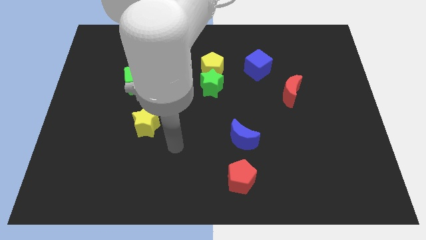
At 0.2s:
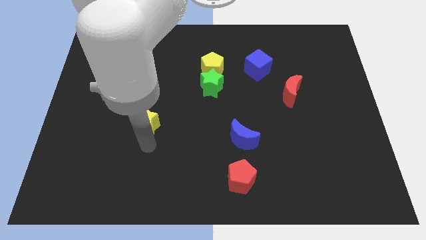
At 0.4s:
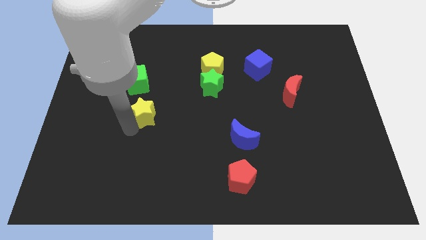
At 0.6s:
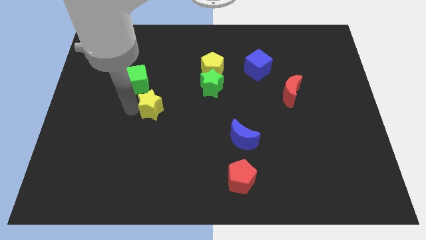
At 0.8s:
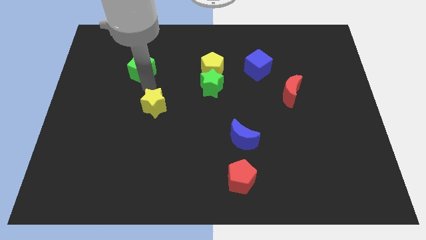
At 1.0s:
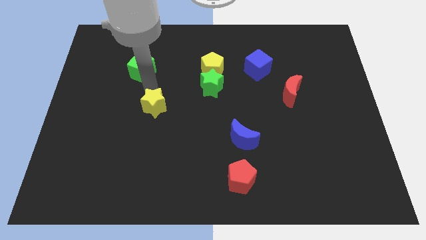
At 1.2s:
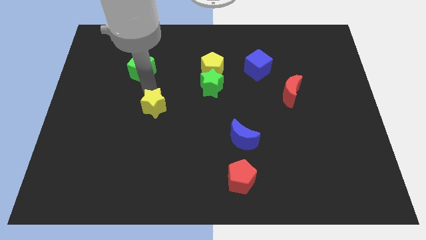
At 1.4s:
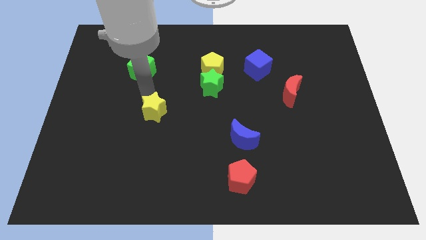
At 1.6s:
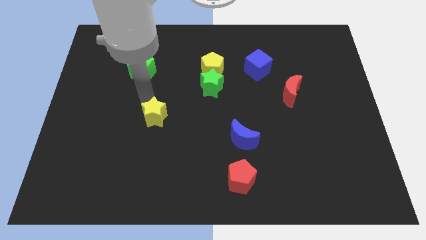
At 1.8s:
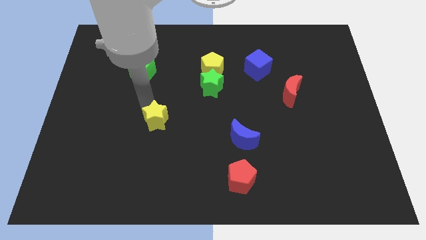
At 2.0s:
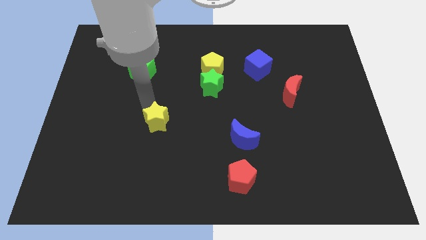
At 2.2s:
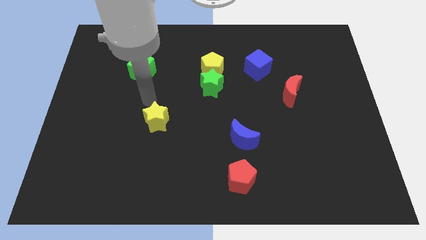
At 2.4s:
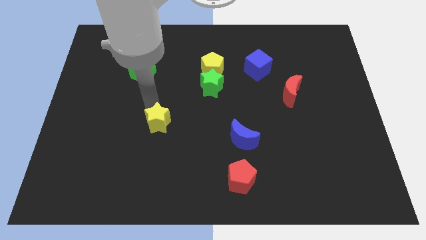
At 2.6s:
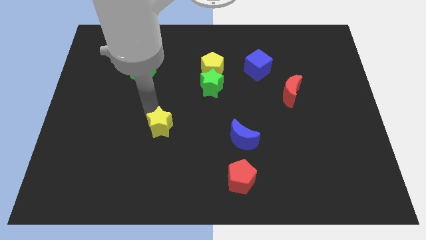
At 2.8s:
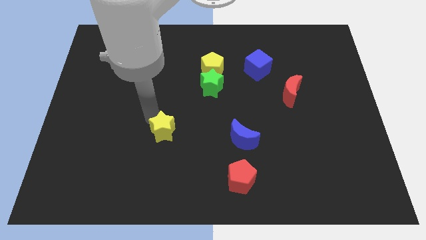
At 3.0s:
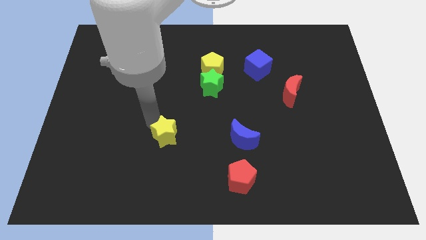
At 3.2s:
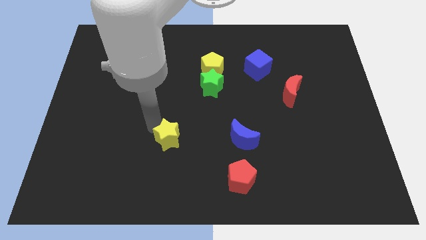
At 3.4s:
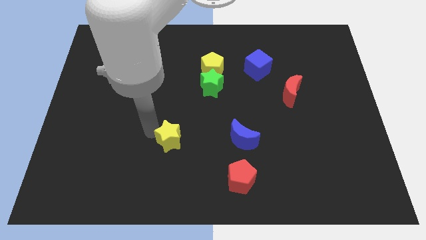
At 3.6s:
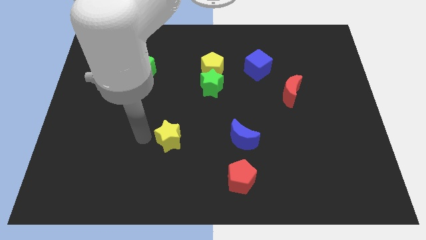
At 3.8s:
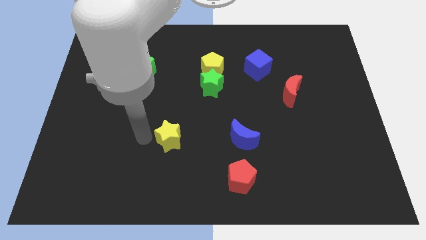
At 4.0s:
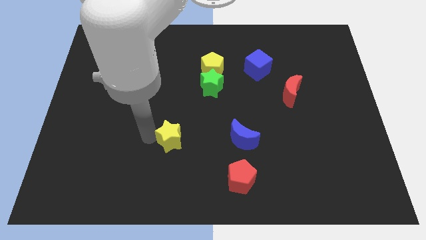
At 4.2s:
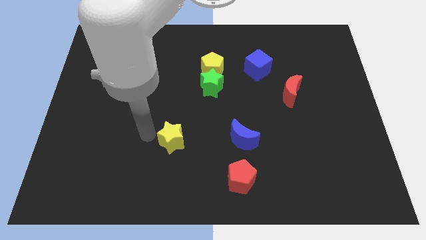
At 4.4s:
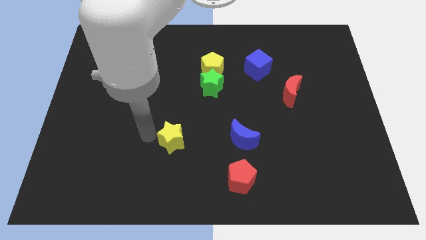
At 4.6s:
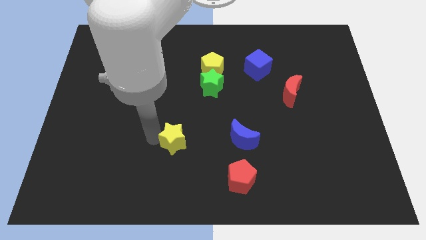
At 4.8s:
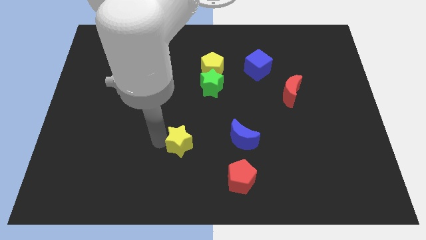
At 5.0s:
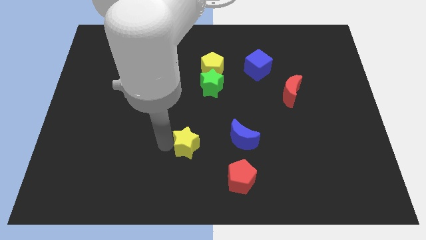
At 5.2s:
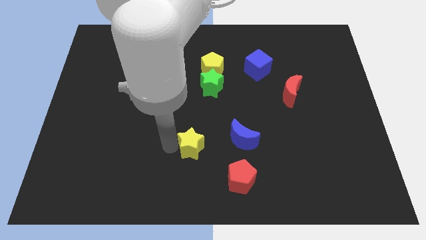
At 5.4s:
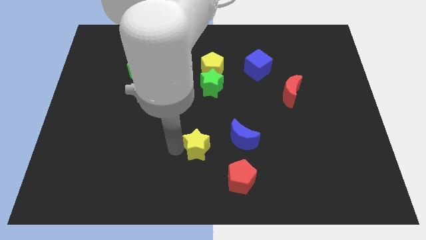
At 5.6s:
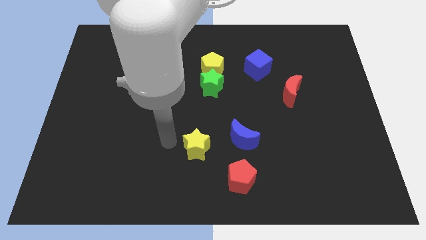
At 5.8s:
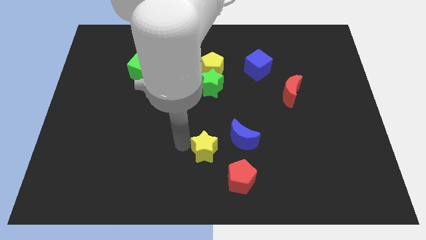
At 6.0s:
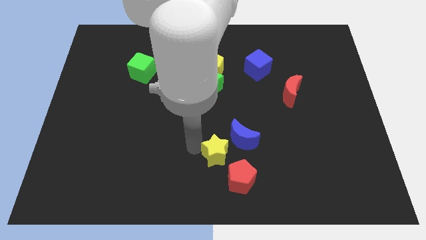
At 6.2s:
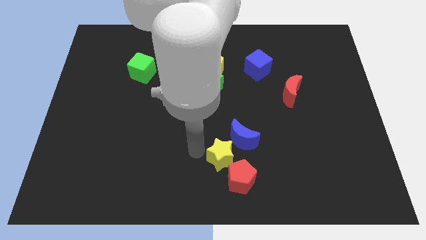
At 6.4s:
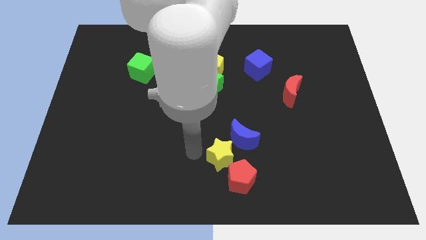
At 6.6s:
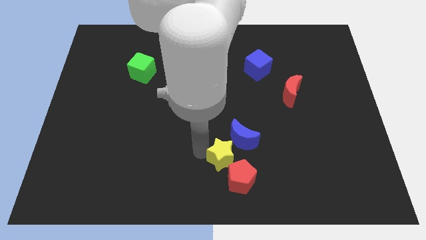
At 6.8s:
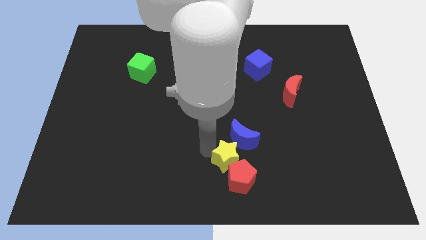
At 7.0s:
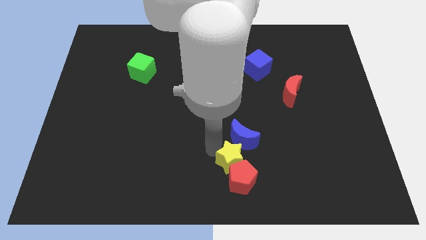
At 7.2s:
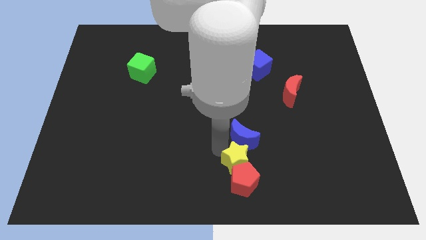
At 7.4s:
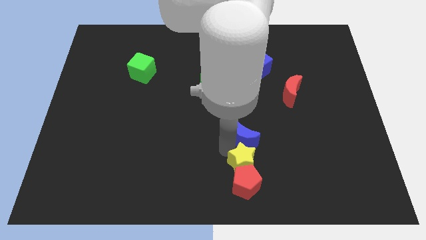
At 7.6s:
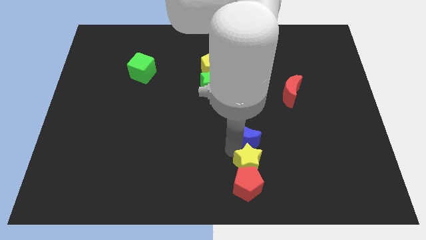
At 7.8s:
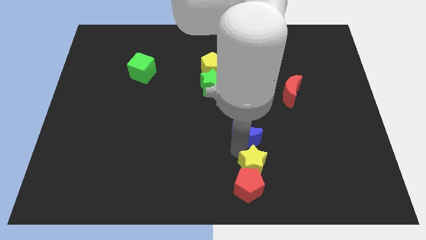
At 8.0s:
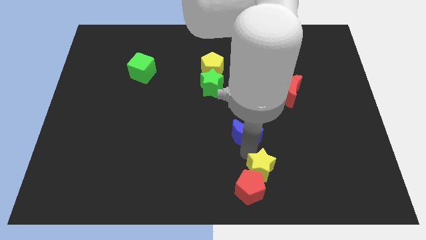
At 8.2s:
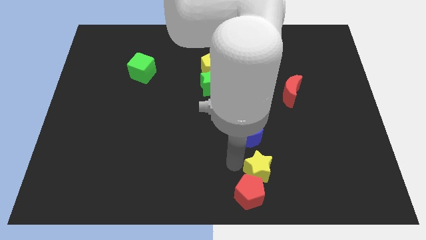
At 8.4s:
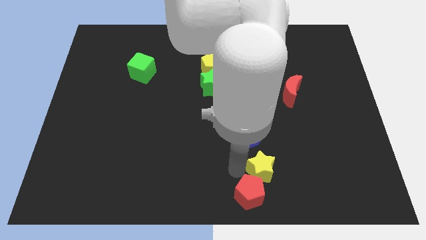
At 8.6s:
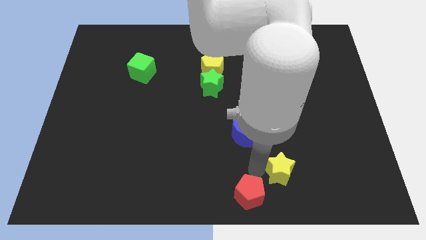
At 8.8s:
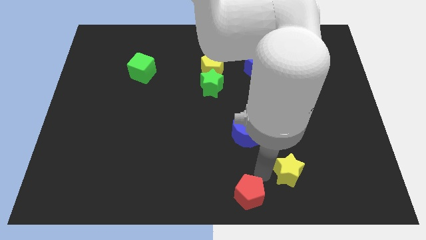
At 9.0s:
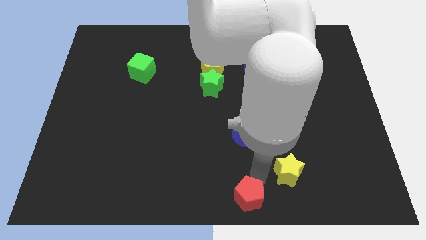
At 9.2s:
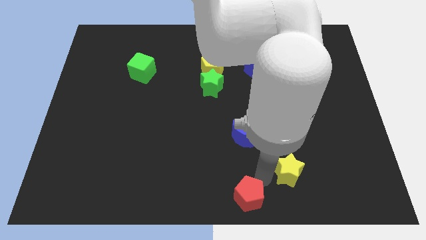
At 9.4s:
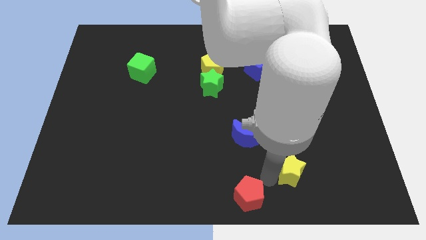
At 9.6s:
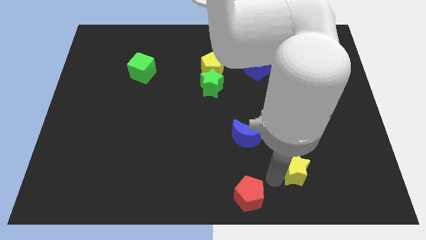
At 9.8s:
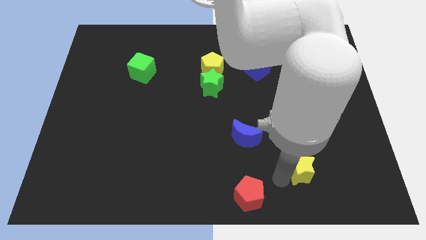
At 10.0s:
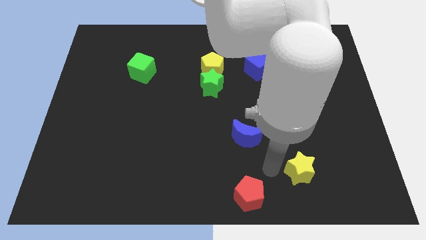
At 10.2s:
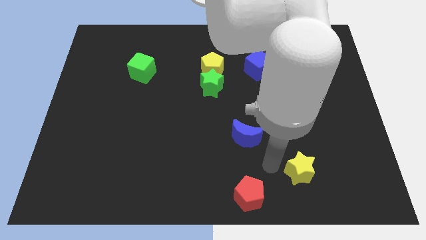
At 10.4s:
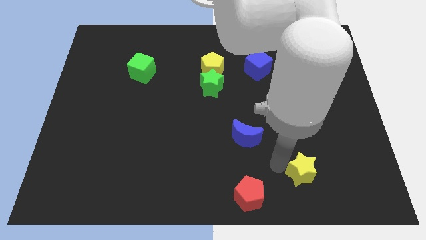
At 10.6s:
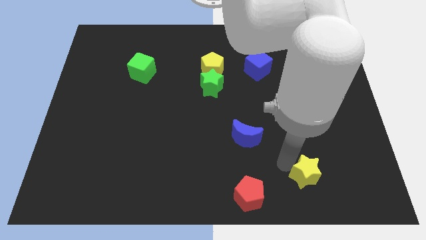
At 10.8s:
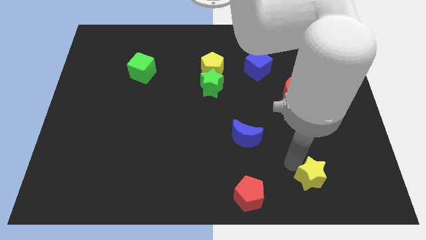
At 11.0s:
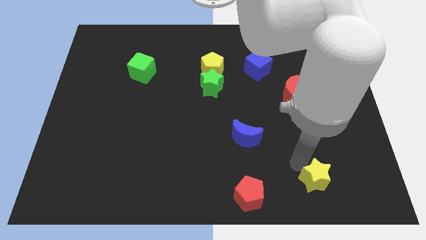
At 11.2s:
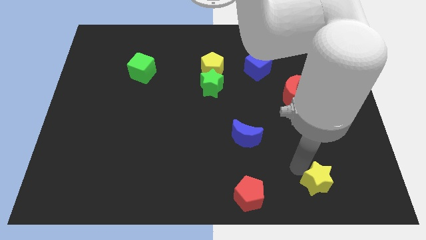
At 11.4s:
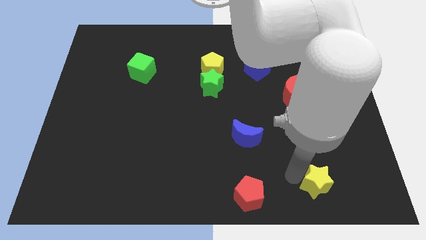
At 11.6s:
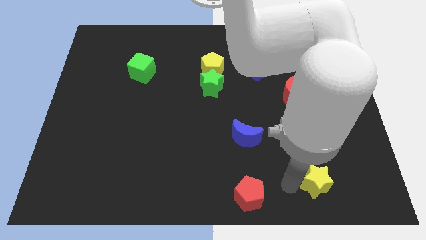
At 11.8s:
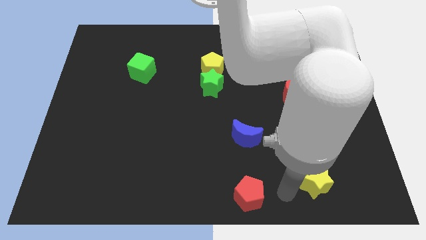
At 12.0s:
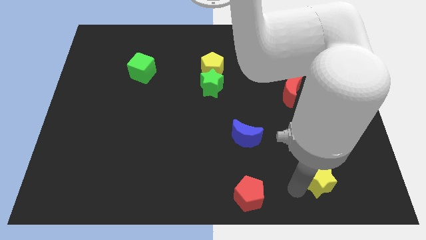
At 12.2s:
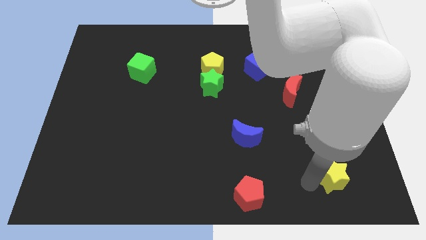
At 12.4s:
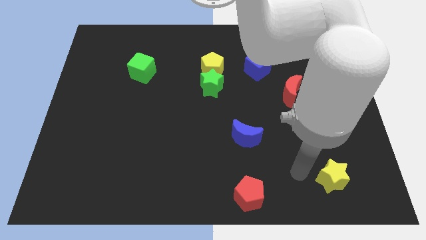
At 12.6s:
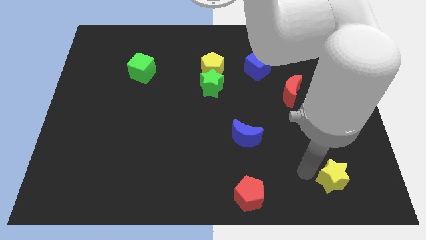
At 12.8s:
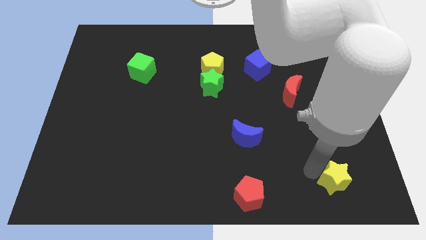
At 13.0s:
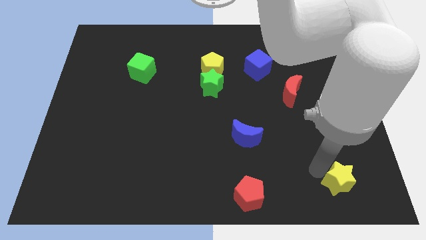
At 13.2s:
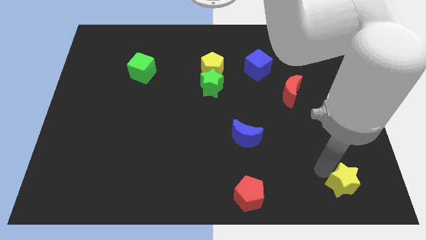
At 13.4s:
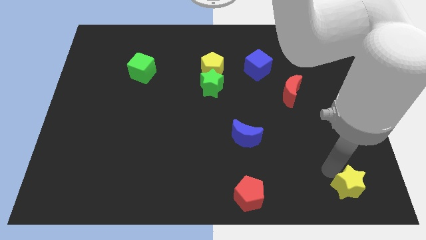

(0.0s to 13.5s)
slide the yellow star to the lower right corner

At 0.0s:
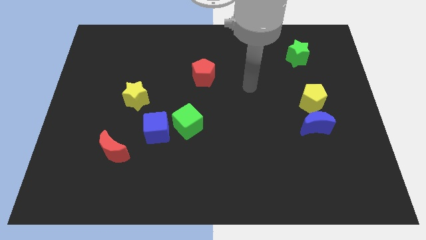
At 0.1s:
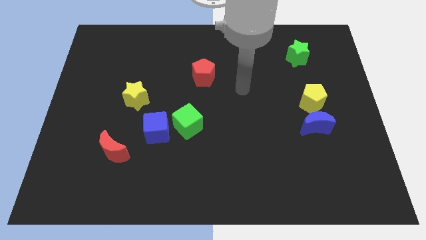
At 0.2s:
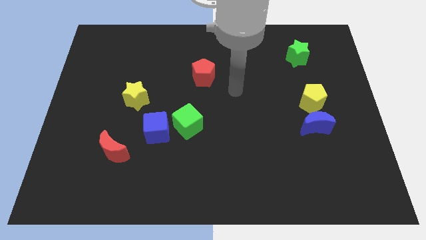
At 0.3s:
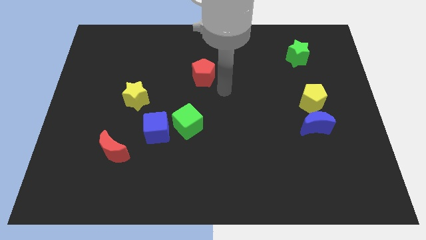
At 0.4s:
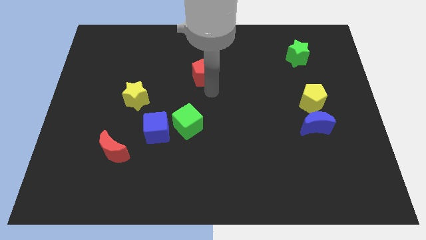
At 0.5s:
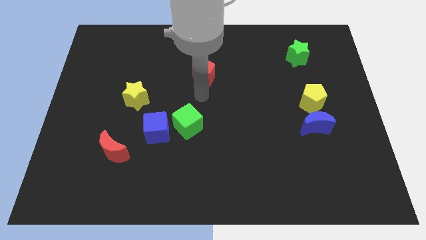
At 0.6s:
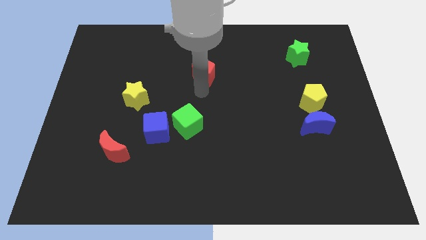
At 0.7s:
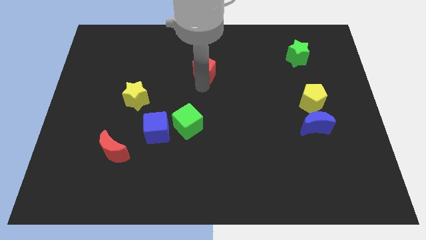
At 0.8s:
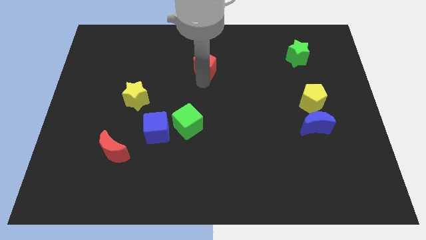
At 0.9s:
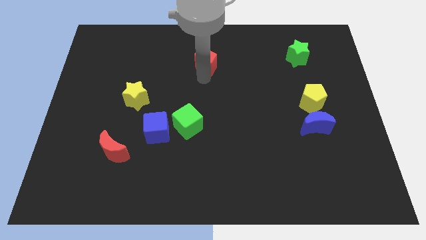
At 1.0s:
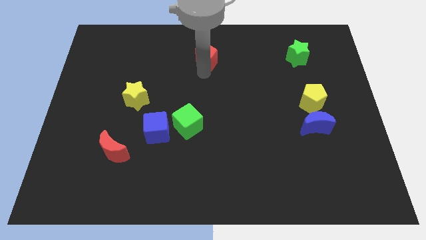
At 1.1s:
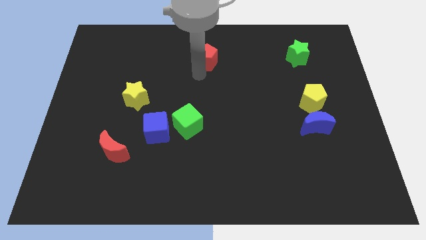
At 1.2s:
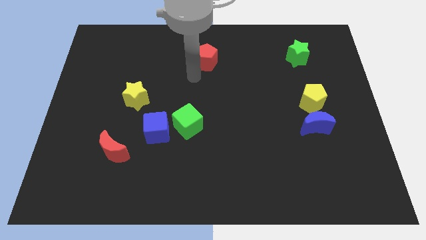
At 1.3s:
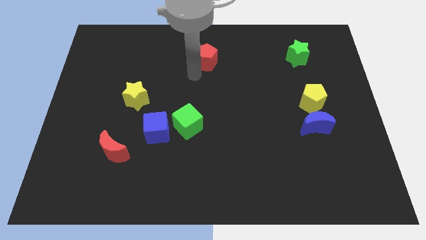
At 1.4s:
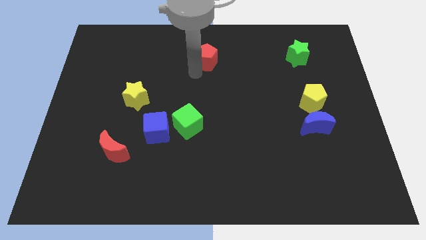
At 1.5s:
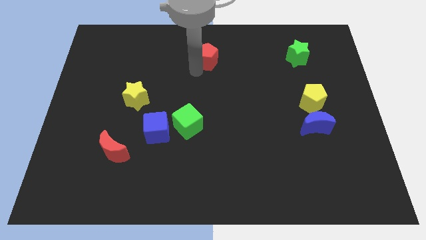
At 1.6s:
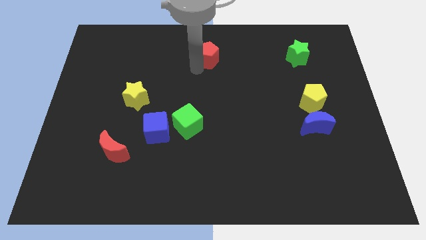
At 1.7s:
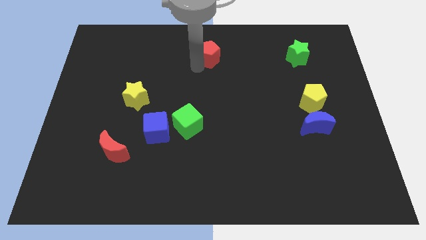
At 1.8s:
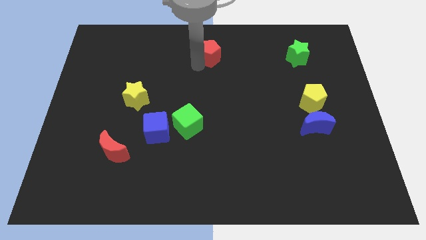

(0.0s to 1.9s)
move the red pentagon to the top side
